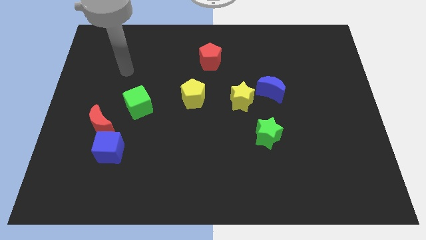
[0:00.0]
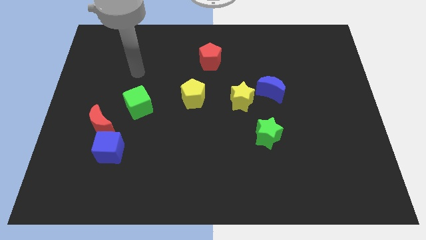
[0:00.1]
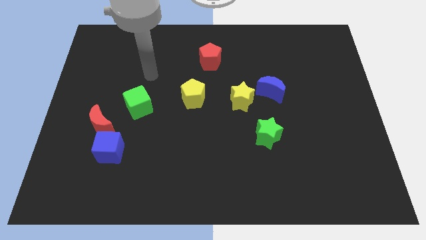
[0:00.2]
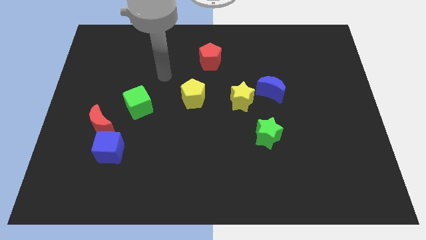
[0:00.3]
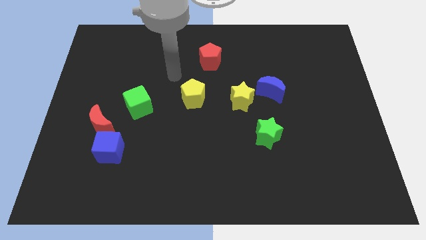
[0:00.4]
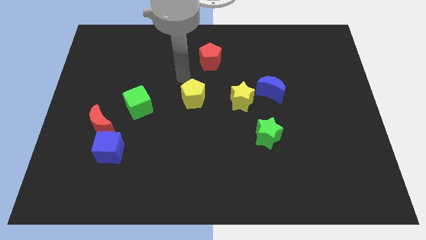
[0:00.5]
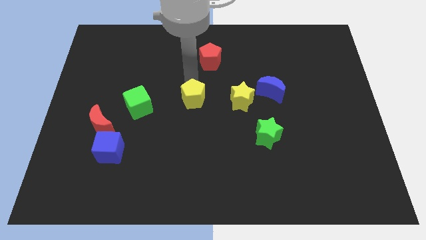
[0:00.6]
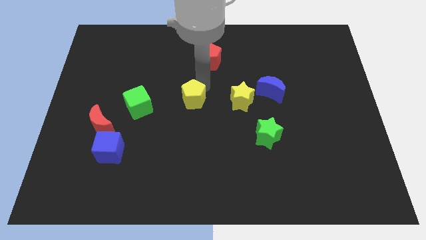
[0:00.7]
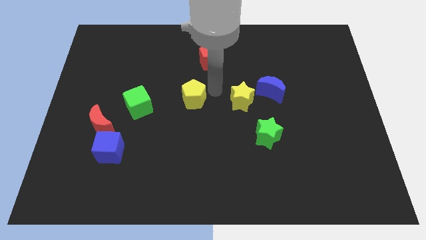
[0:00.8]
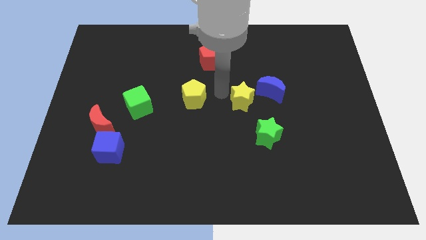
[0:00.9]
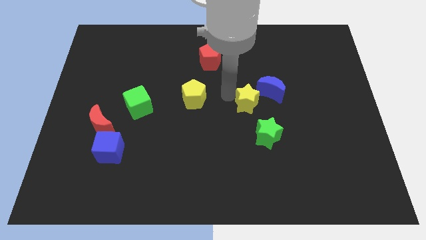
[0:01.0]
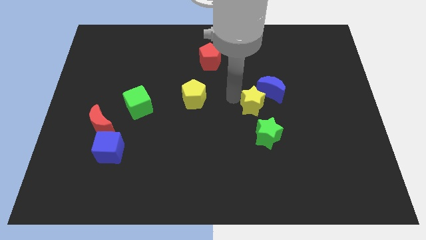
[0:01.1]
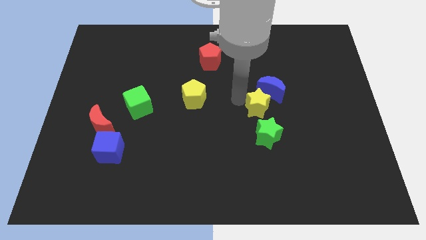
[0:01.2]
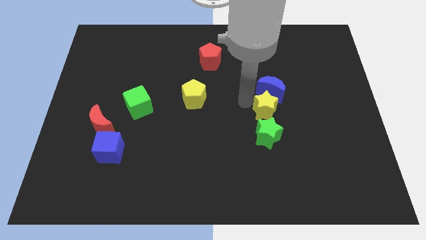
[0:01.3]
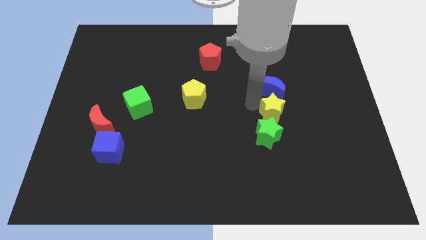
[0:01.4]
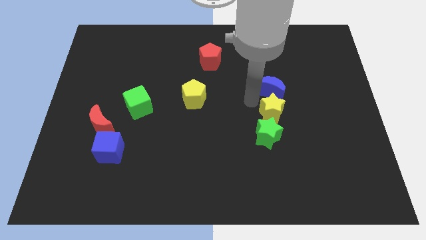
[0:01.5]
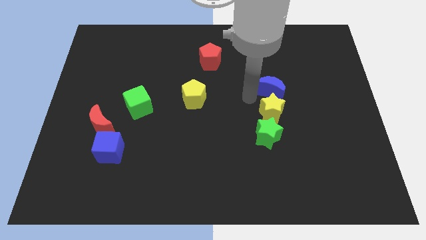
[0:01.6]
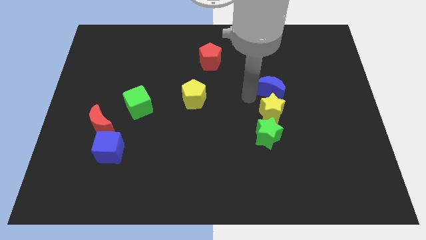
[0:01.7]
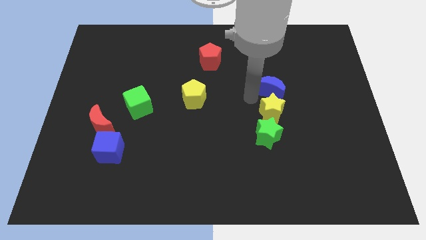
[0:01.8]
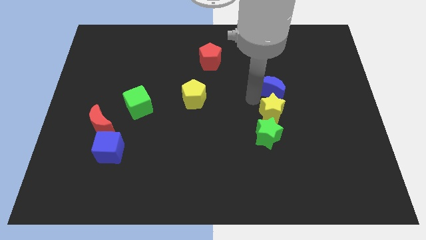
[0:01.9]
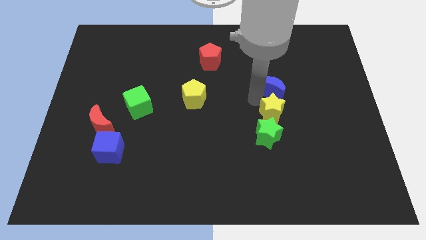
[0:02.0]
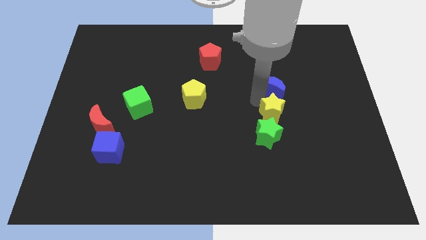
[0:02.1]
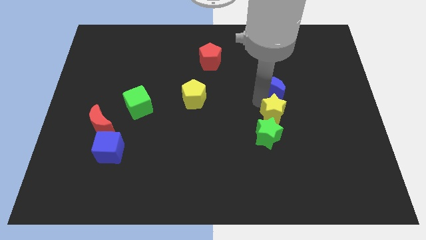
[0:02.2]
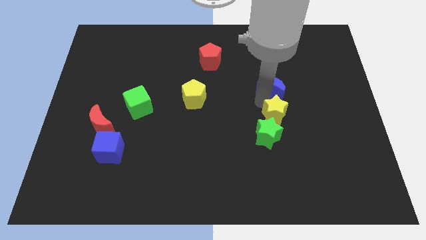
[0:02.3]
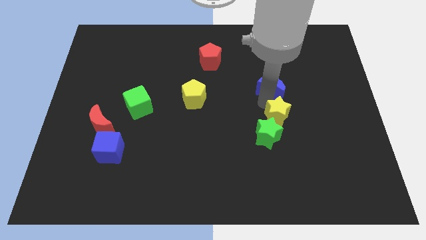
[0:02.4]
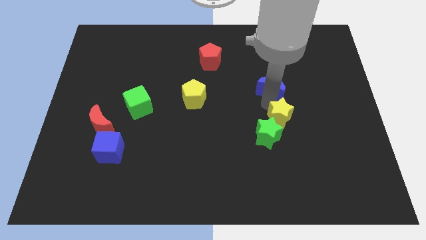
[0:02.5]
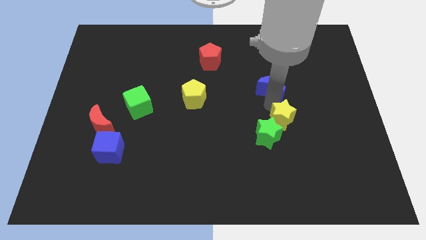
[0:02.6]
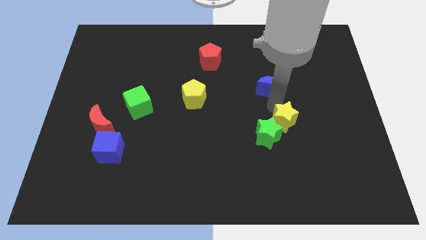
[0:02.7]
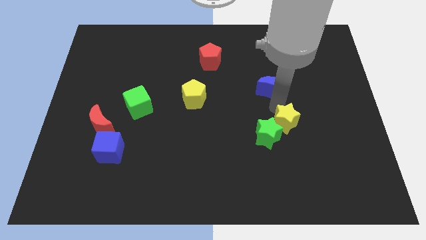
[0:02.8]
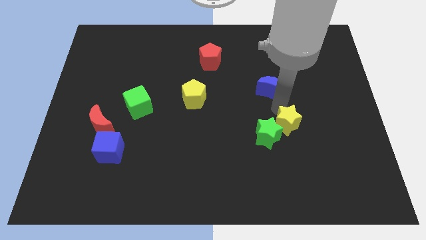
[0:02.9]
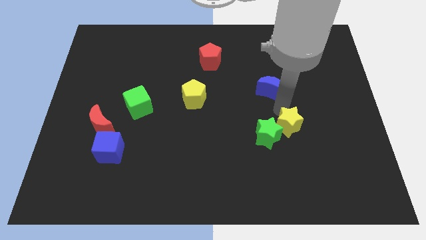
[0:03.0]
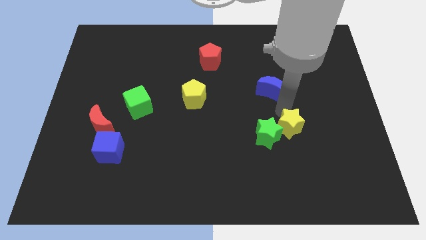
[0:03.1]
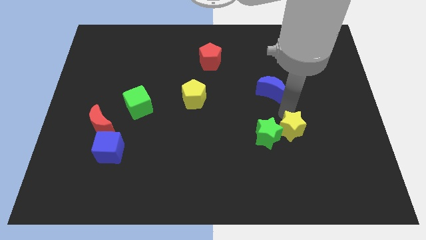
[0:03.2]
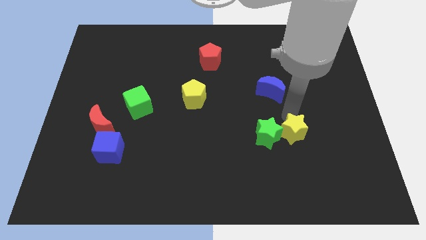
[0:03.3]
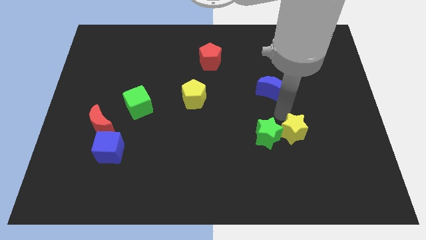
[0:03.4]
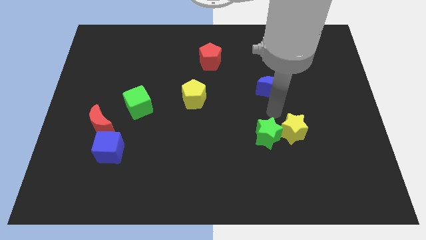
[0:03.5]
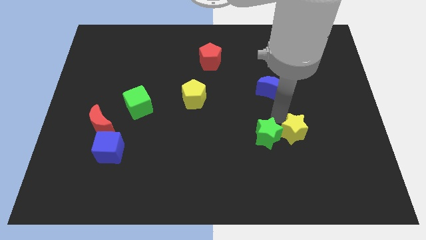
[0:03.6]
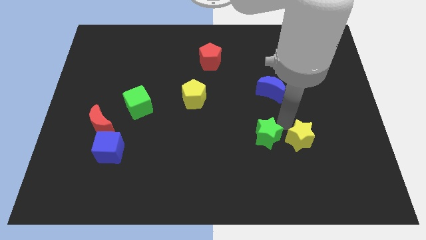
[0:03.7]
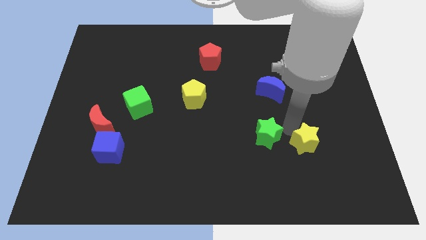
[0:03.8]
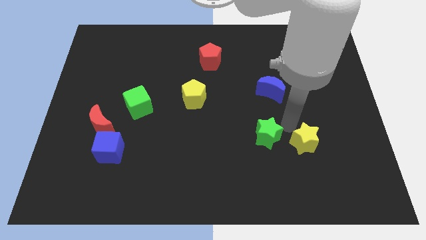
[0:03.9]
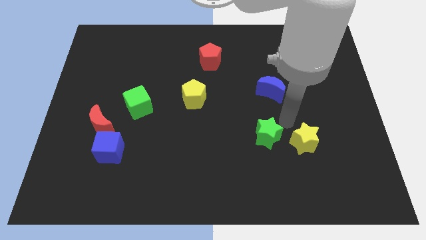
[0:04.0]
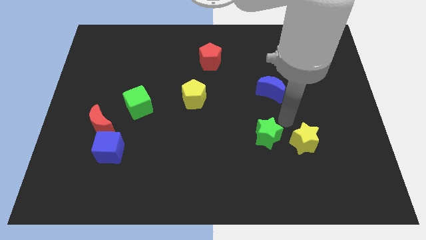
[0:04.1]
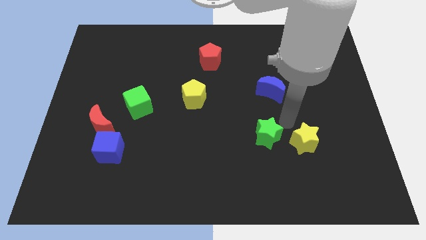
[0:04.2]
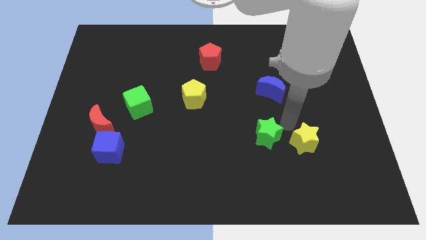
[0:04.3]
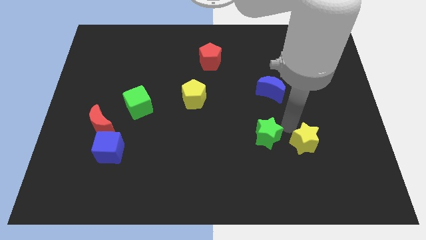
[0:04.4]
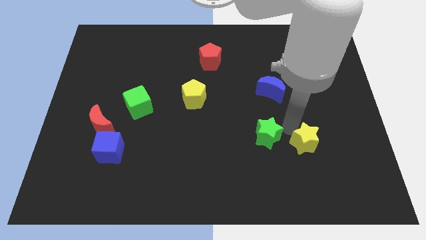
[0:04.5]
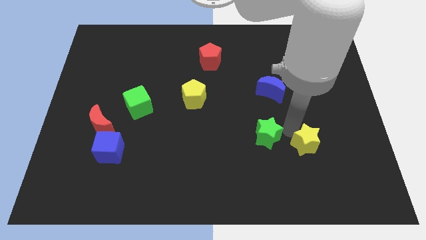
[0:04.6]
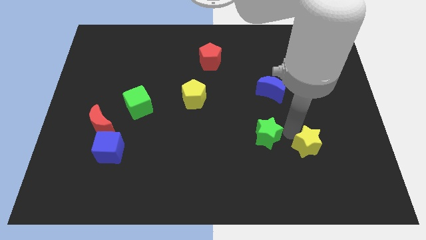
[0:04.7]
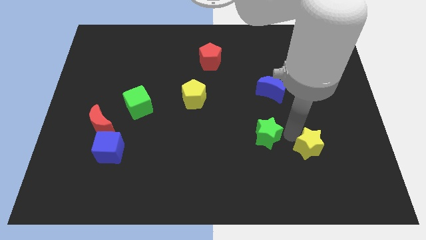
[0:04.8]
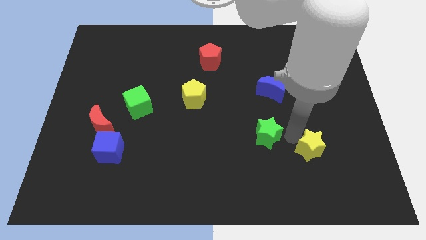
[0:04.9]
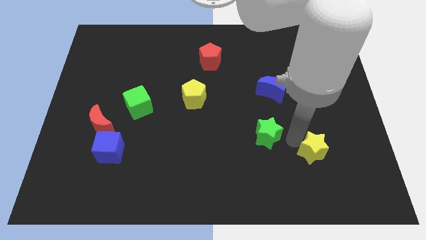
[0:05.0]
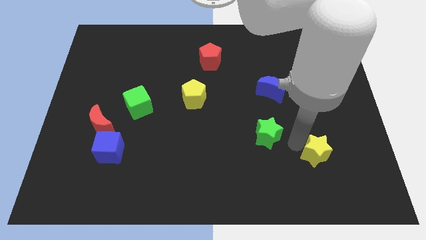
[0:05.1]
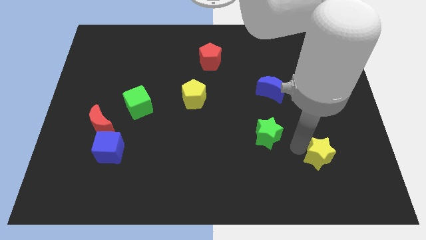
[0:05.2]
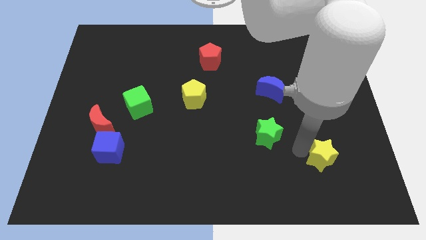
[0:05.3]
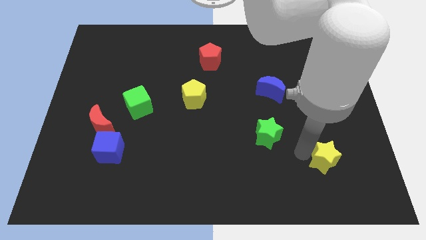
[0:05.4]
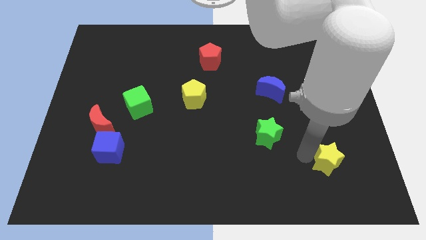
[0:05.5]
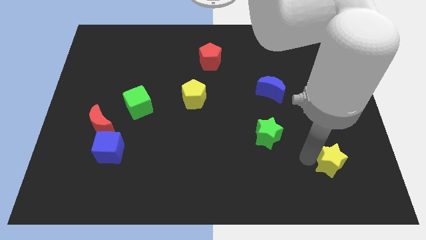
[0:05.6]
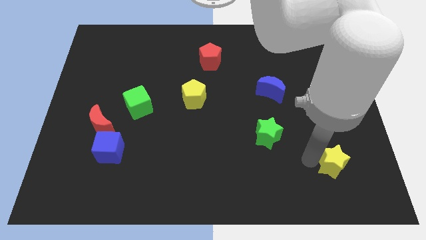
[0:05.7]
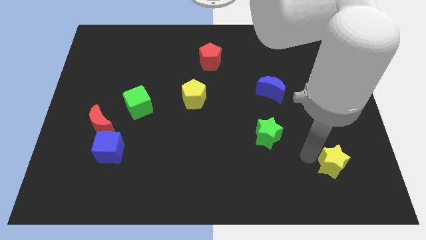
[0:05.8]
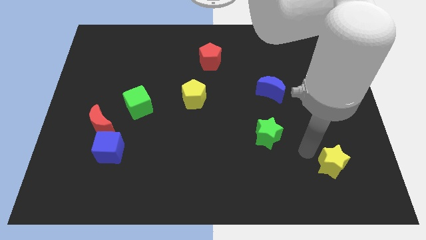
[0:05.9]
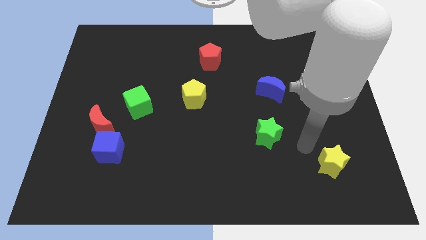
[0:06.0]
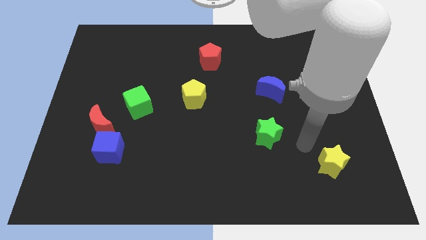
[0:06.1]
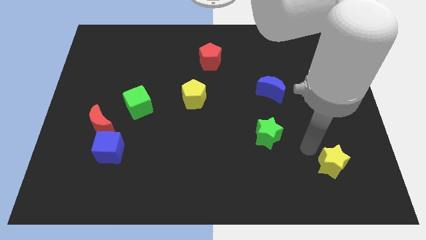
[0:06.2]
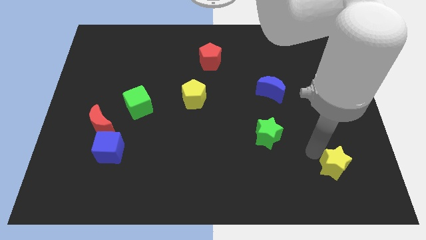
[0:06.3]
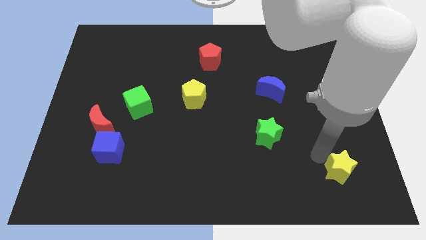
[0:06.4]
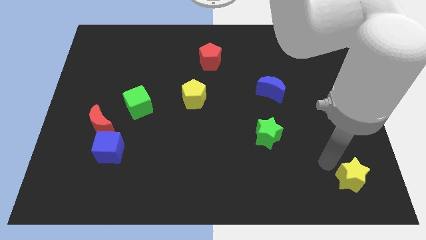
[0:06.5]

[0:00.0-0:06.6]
slide the yellow star to the bottom right of the board

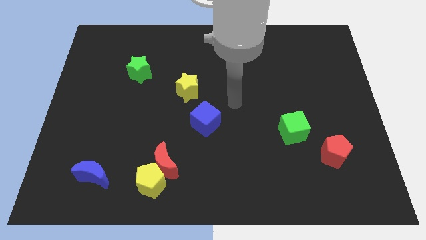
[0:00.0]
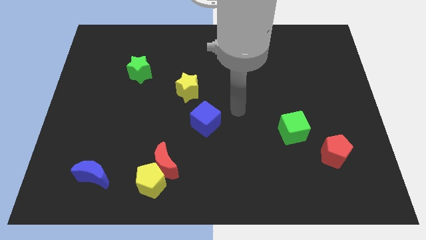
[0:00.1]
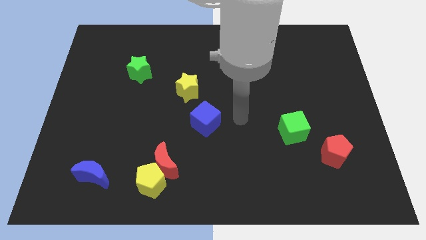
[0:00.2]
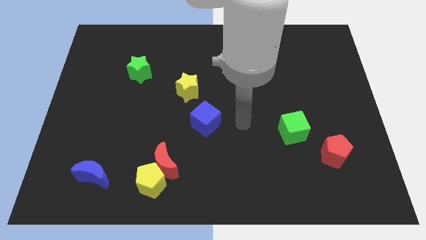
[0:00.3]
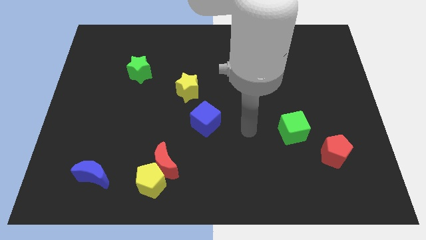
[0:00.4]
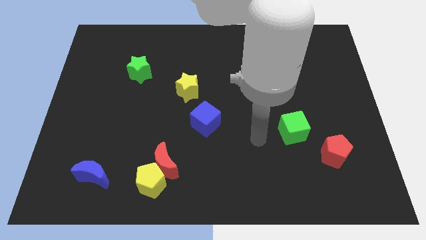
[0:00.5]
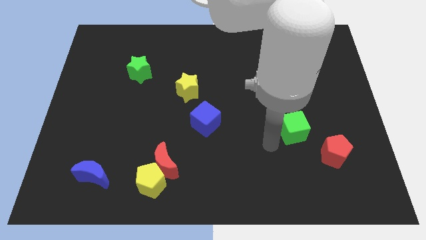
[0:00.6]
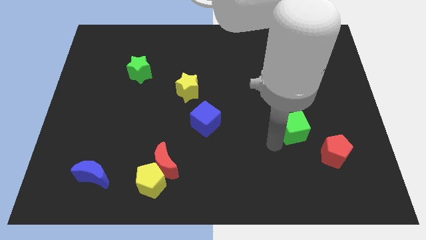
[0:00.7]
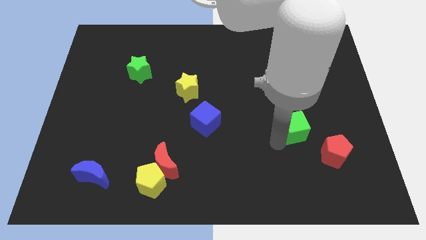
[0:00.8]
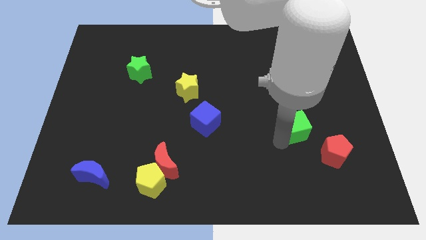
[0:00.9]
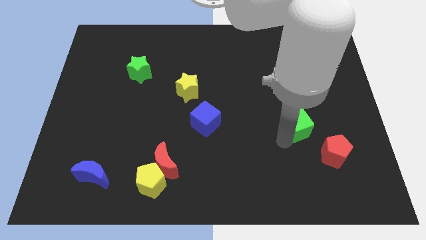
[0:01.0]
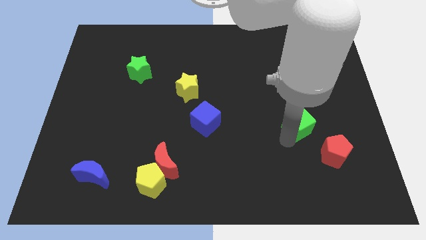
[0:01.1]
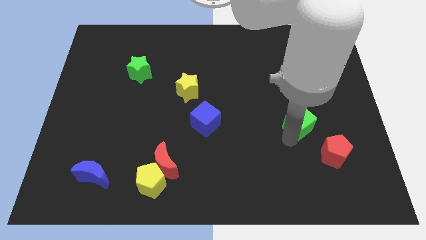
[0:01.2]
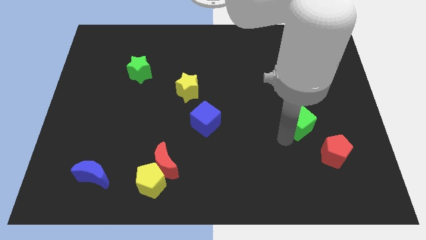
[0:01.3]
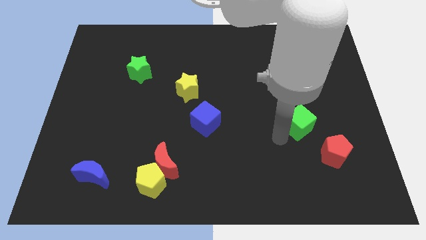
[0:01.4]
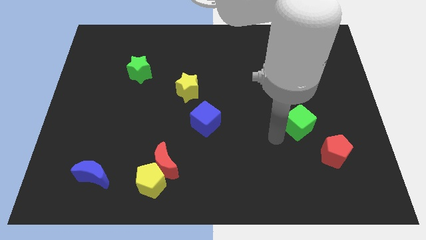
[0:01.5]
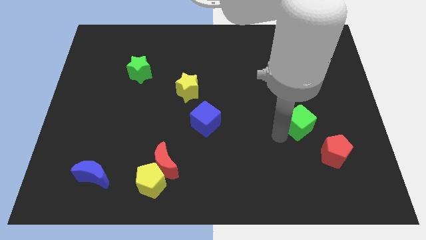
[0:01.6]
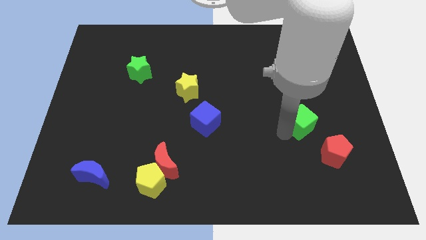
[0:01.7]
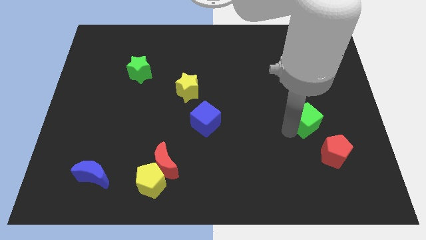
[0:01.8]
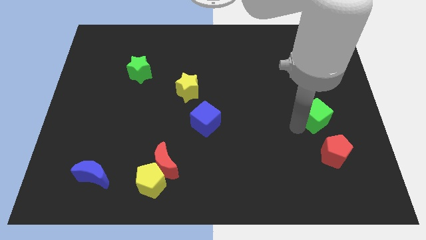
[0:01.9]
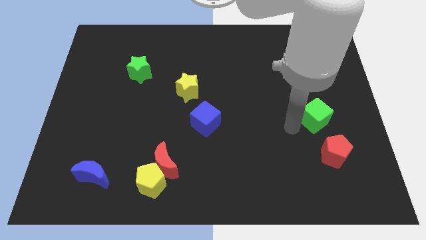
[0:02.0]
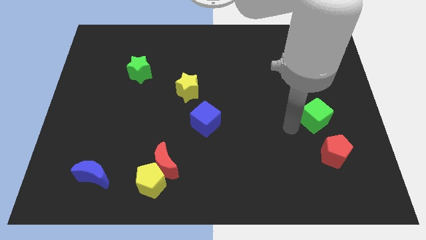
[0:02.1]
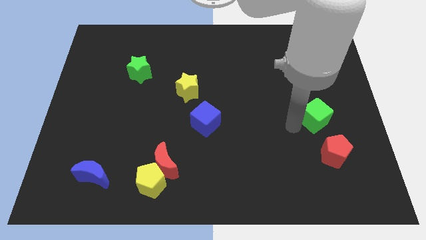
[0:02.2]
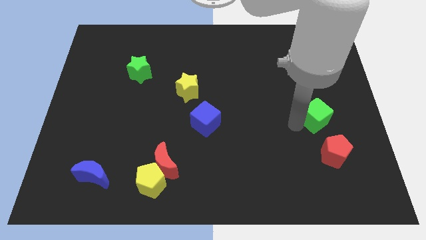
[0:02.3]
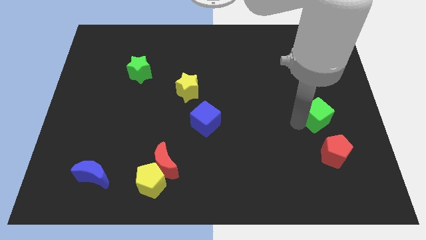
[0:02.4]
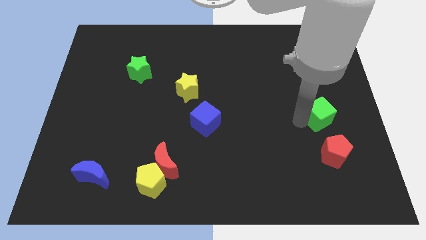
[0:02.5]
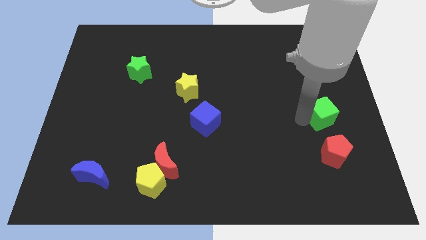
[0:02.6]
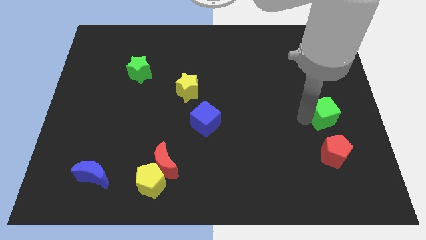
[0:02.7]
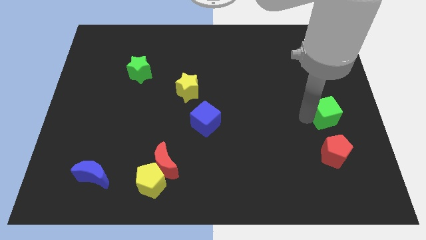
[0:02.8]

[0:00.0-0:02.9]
move the green cube to the right side of the board
